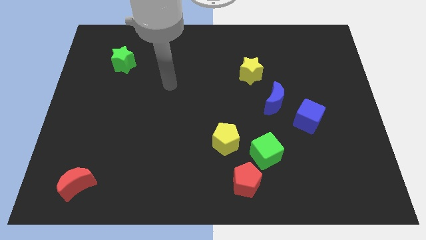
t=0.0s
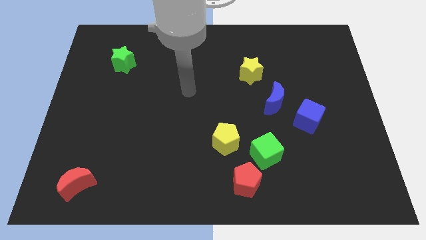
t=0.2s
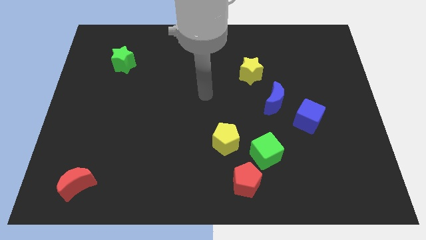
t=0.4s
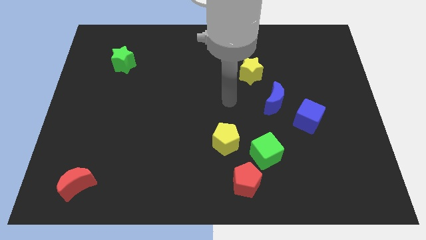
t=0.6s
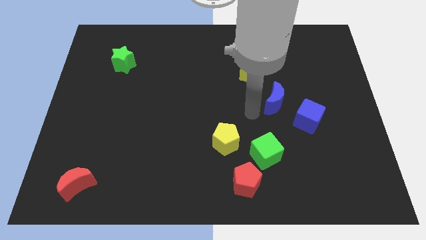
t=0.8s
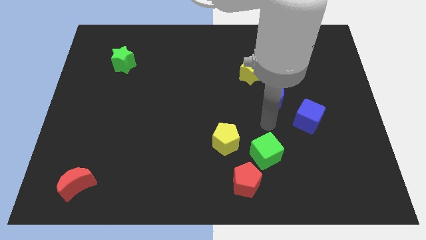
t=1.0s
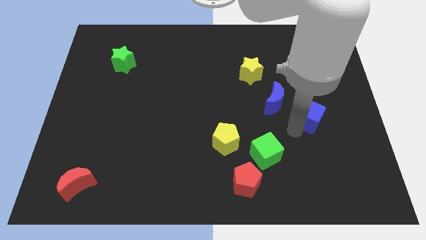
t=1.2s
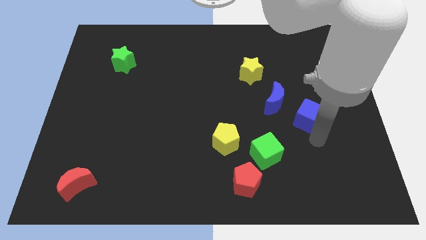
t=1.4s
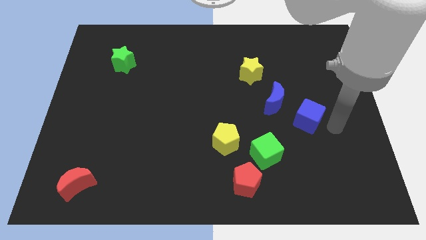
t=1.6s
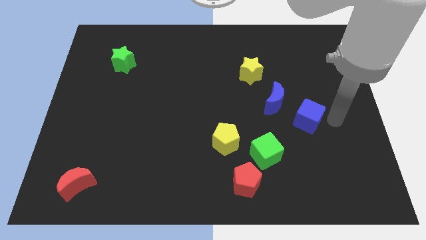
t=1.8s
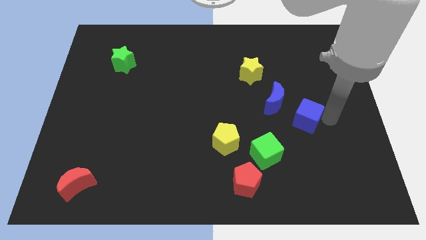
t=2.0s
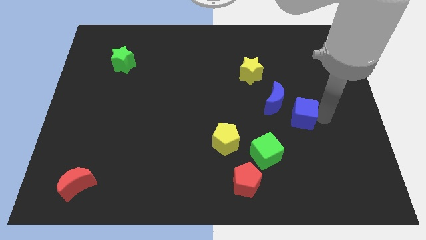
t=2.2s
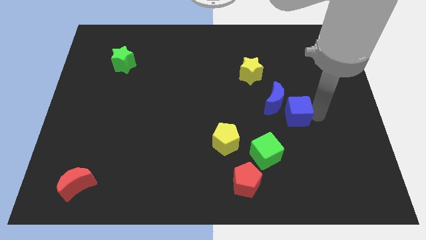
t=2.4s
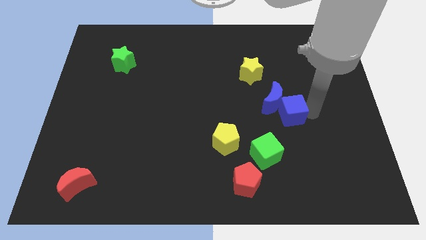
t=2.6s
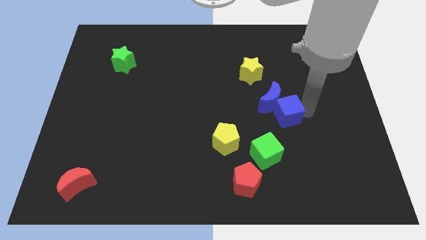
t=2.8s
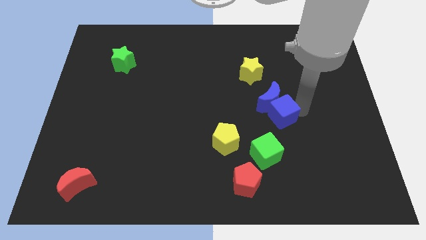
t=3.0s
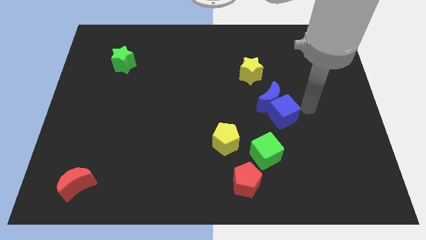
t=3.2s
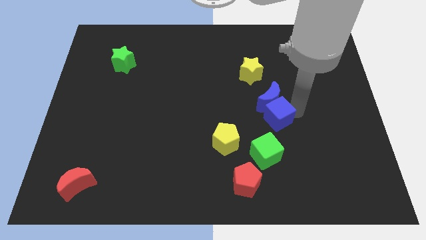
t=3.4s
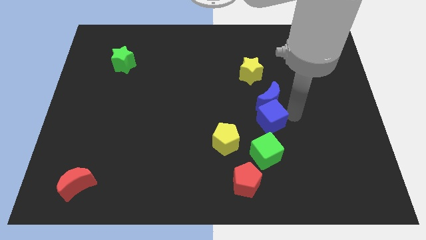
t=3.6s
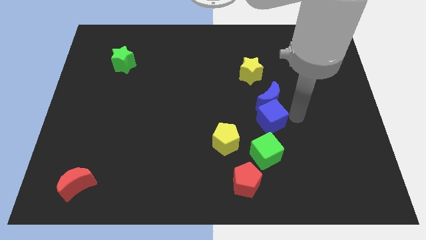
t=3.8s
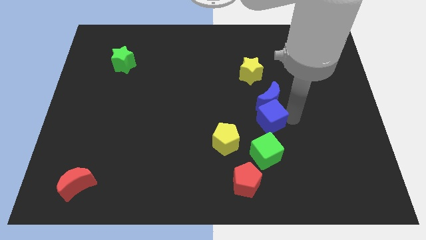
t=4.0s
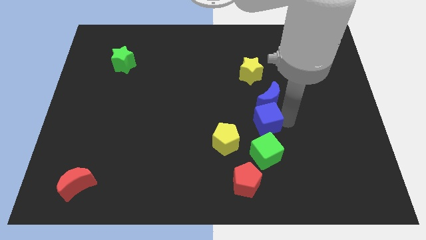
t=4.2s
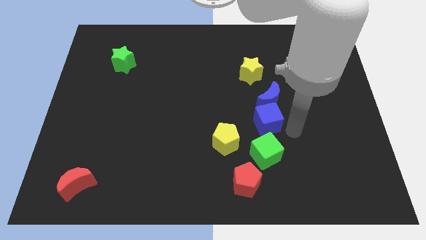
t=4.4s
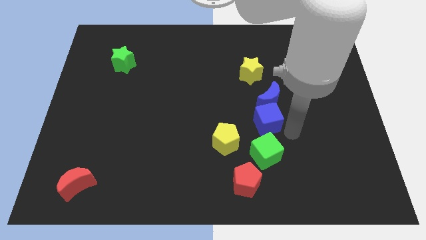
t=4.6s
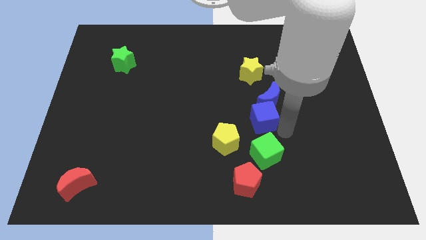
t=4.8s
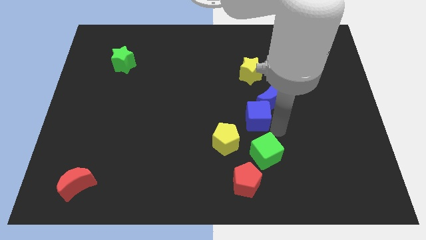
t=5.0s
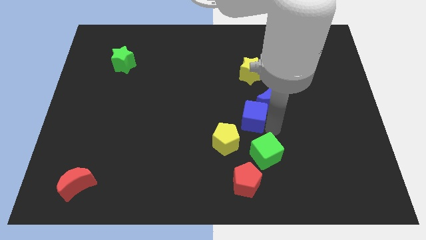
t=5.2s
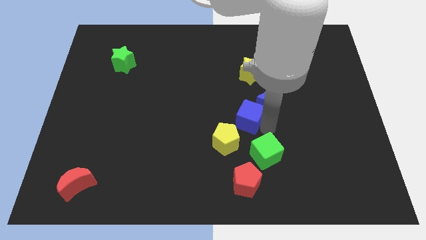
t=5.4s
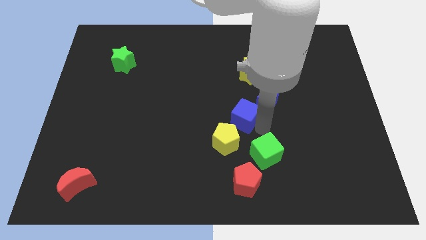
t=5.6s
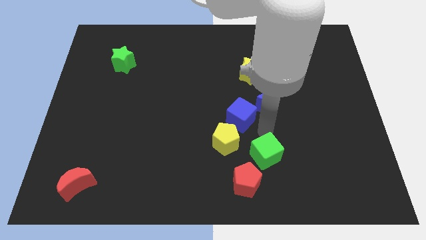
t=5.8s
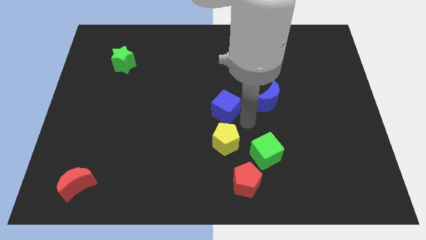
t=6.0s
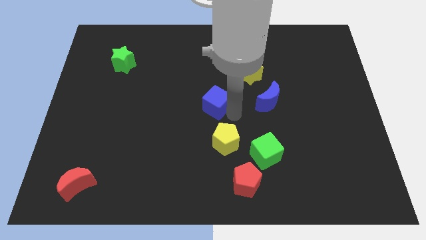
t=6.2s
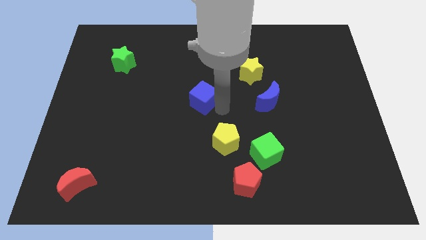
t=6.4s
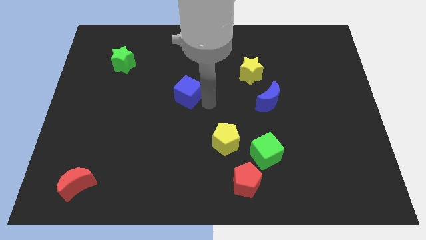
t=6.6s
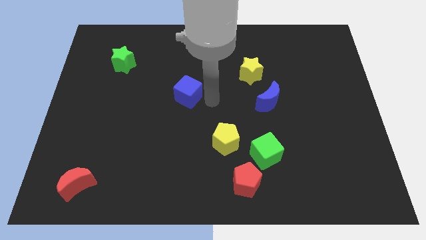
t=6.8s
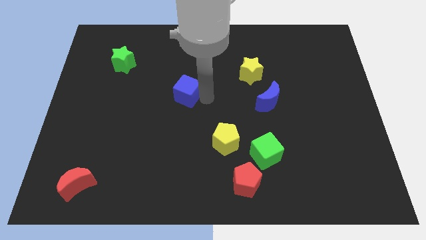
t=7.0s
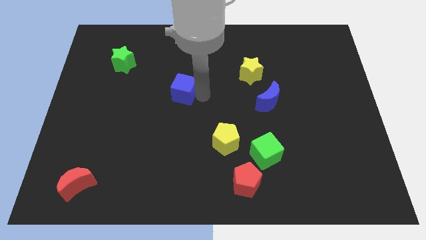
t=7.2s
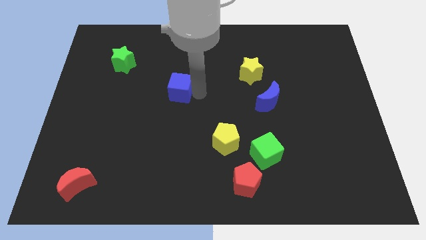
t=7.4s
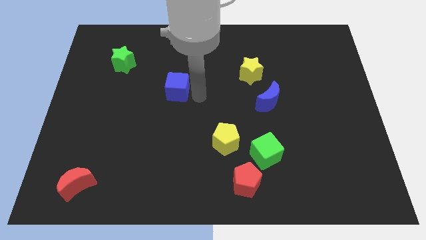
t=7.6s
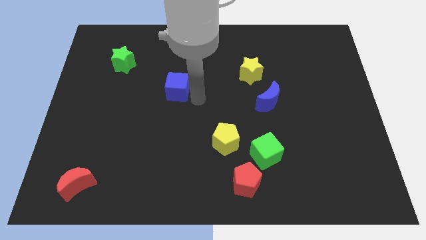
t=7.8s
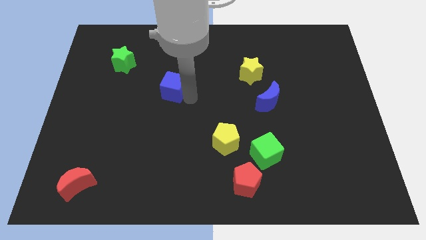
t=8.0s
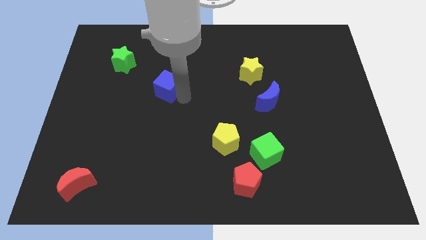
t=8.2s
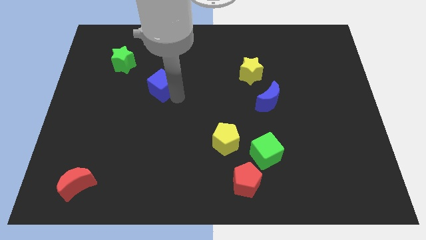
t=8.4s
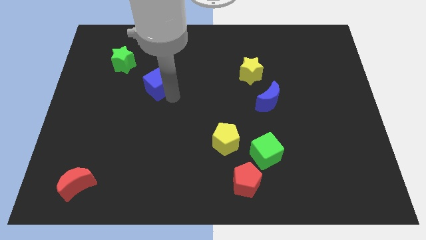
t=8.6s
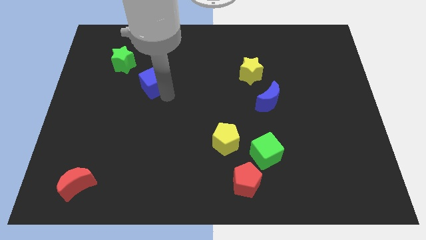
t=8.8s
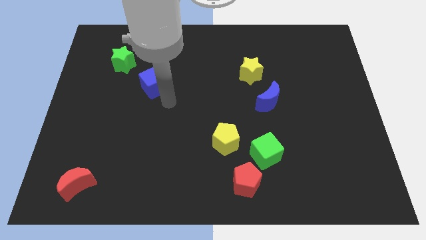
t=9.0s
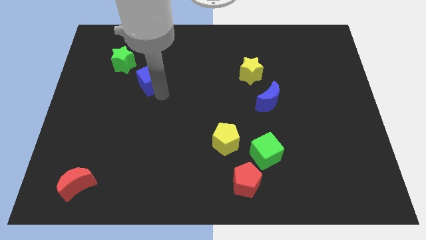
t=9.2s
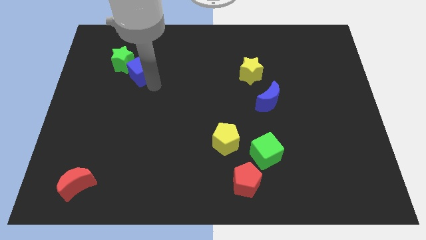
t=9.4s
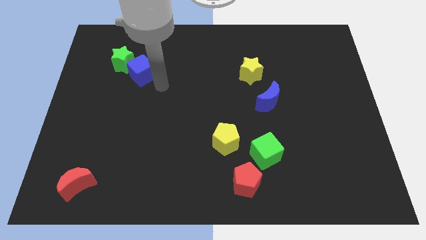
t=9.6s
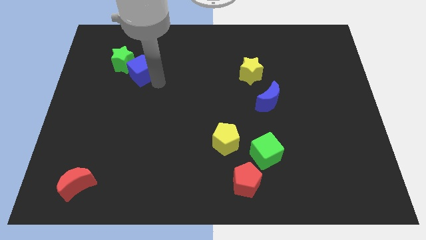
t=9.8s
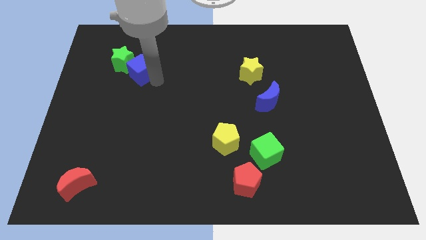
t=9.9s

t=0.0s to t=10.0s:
move the blue cube towards the green star

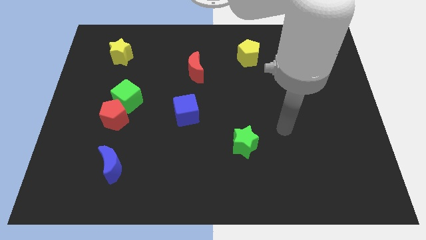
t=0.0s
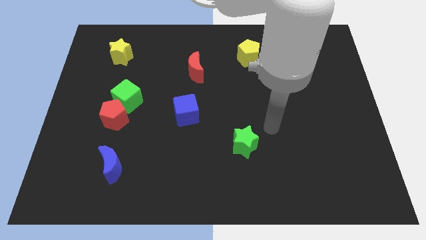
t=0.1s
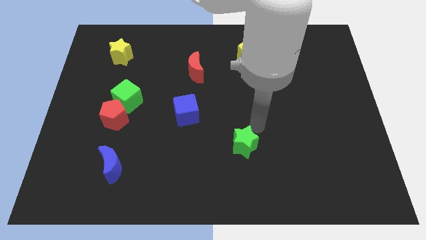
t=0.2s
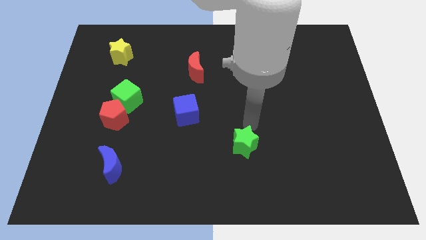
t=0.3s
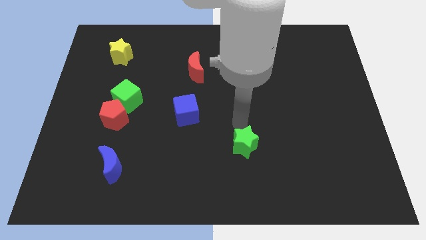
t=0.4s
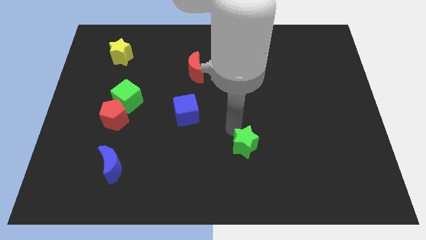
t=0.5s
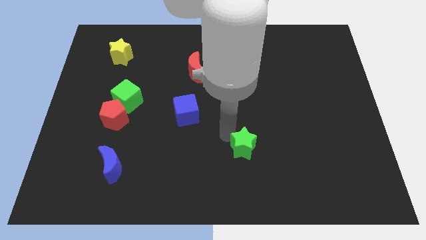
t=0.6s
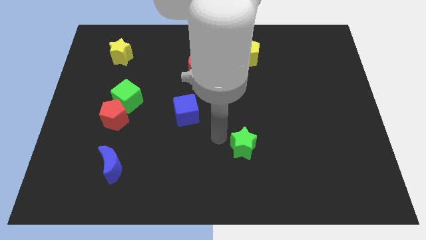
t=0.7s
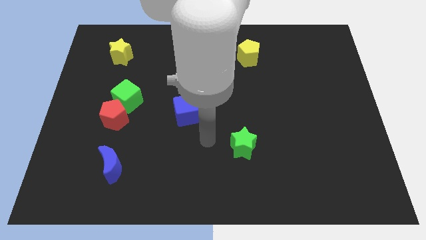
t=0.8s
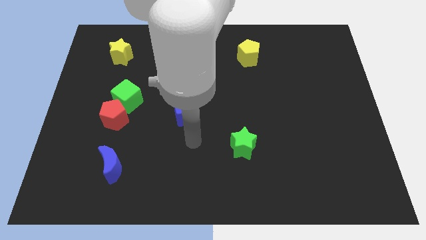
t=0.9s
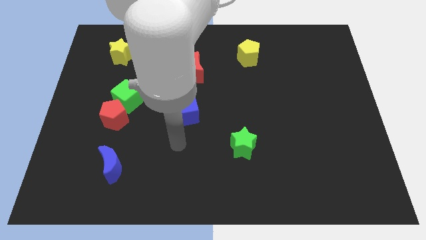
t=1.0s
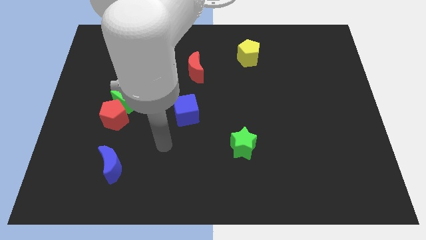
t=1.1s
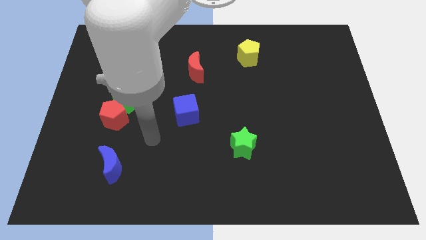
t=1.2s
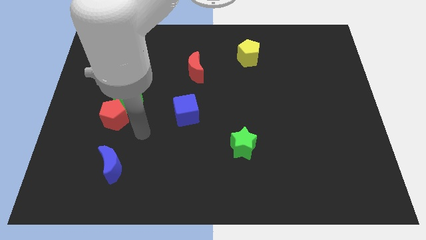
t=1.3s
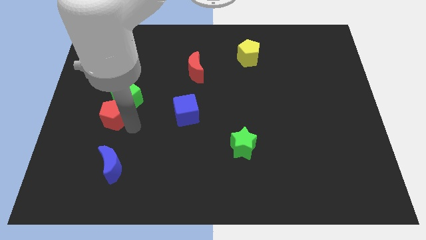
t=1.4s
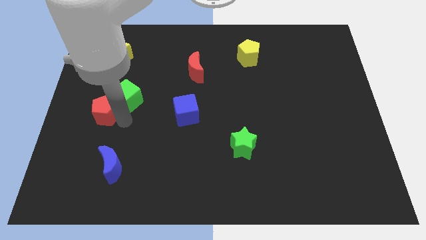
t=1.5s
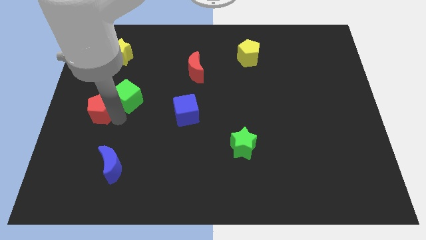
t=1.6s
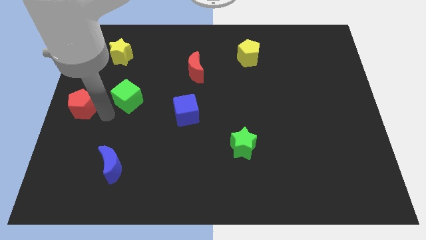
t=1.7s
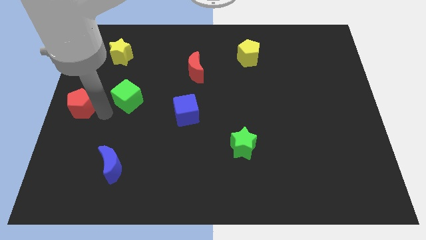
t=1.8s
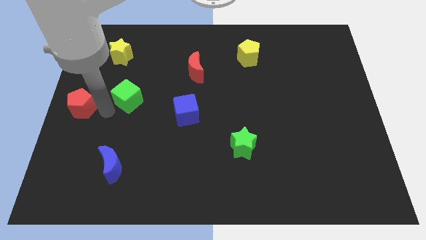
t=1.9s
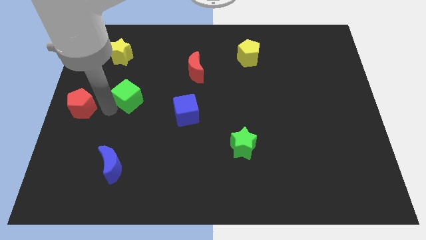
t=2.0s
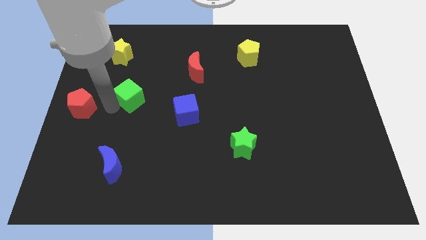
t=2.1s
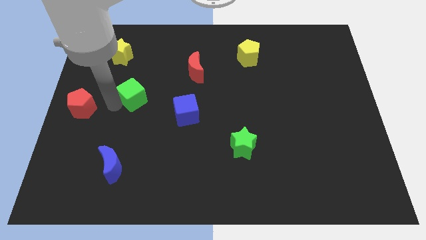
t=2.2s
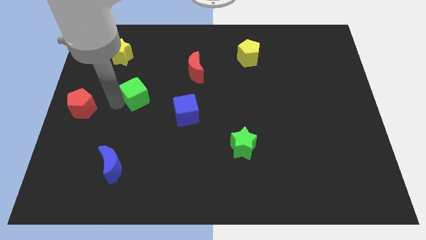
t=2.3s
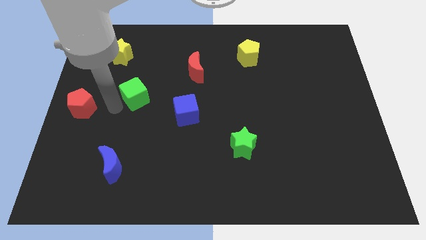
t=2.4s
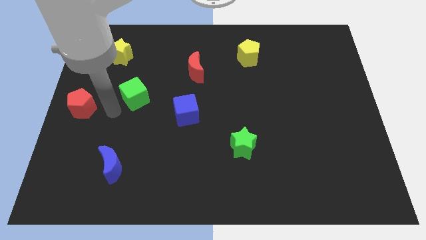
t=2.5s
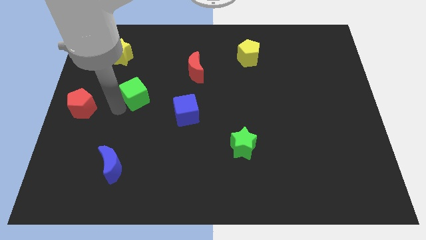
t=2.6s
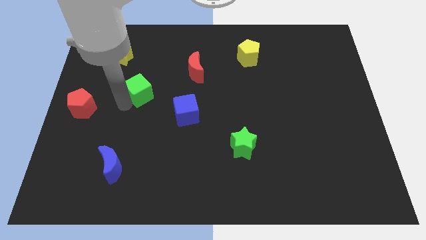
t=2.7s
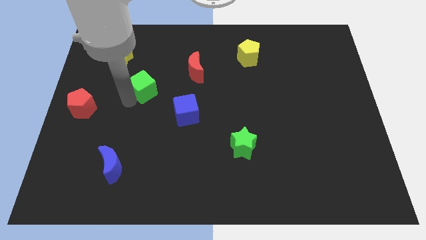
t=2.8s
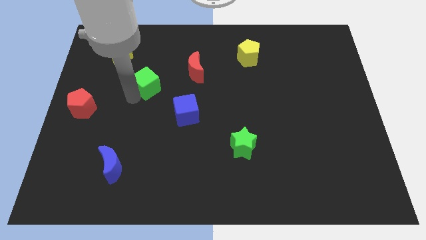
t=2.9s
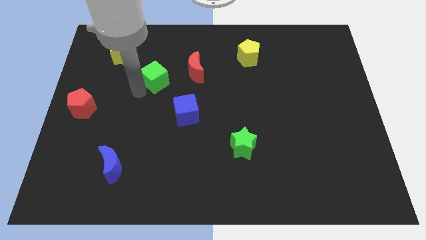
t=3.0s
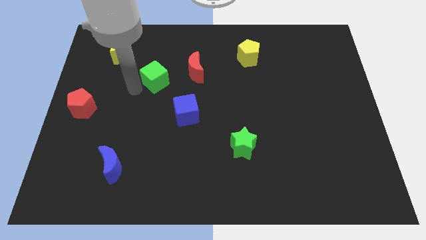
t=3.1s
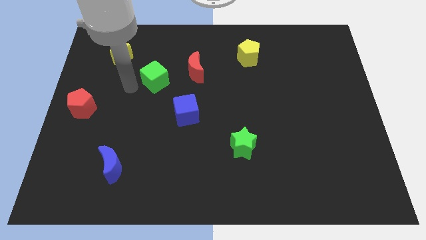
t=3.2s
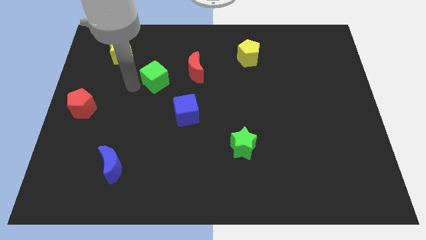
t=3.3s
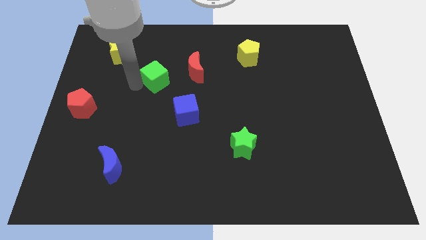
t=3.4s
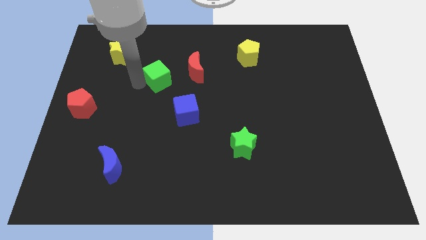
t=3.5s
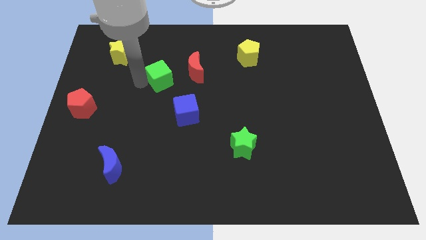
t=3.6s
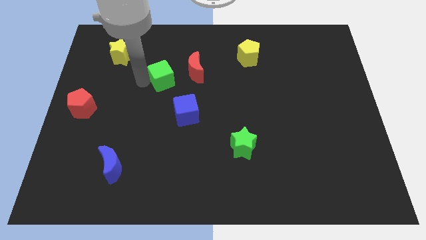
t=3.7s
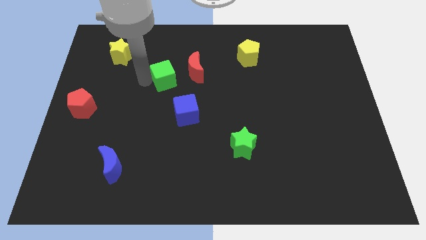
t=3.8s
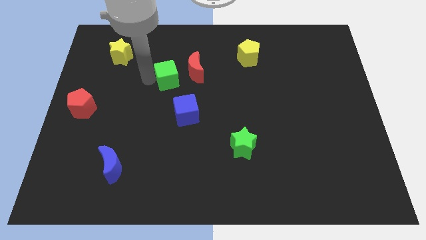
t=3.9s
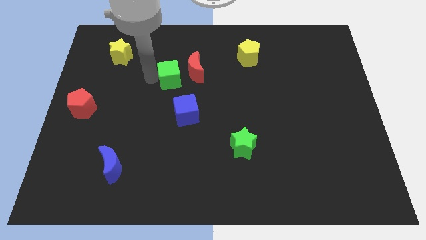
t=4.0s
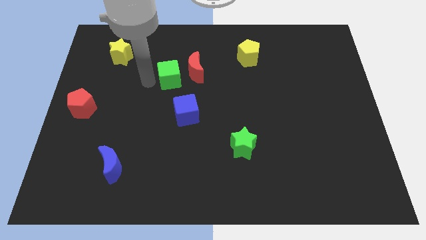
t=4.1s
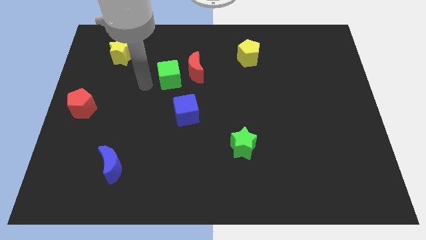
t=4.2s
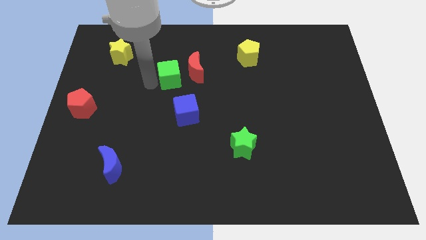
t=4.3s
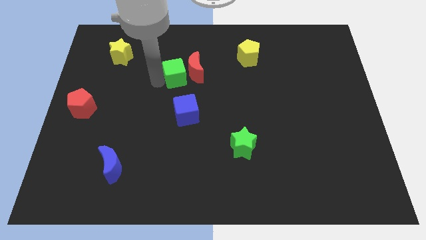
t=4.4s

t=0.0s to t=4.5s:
put the green cube to the red moon
